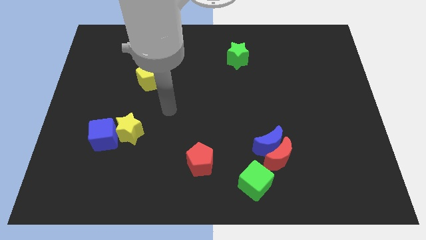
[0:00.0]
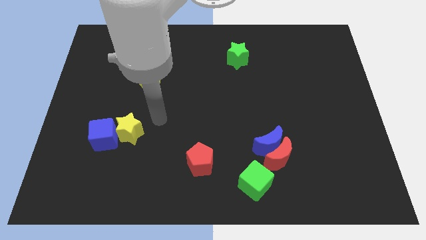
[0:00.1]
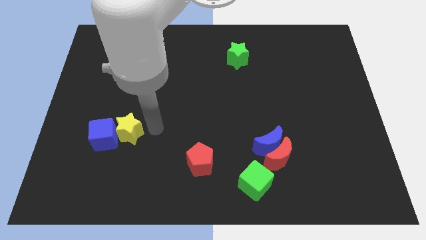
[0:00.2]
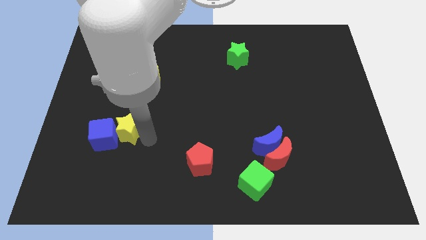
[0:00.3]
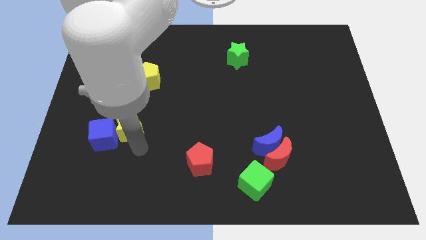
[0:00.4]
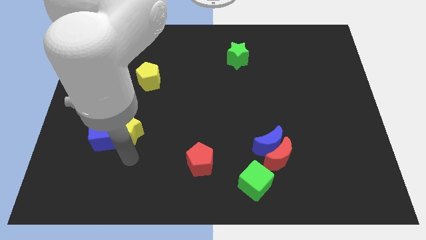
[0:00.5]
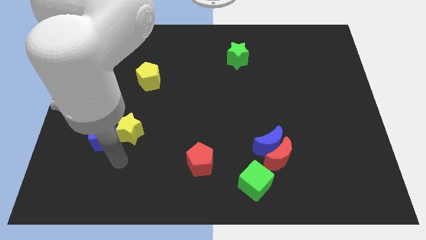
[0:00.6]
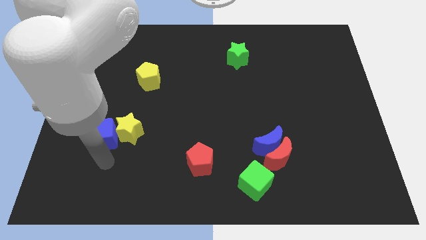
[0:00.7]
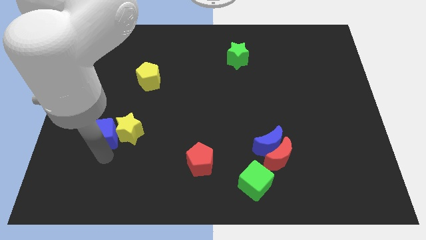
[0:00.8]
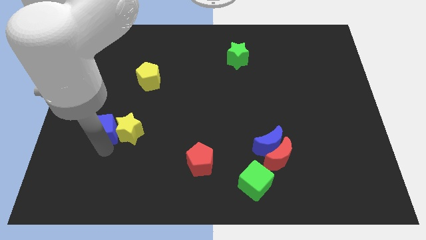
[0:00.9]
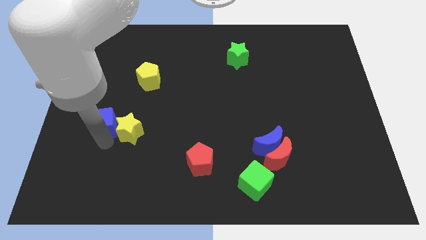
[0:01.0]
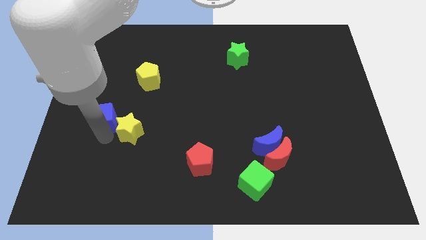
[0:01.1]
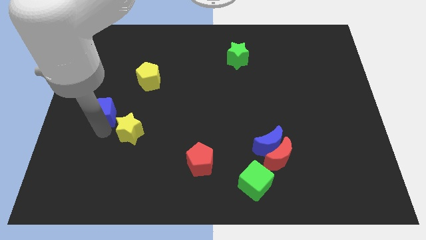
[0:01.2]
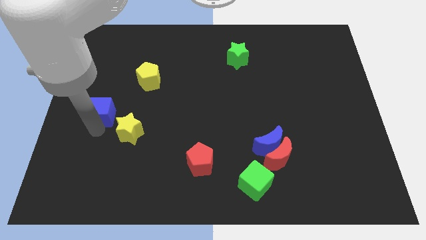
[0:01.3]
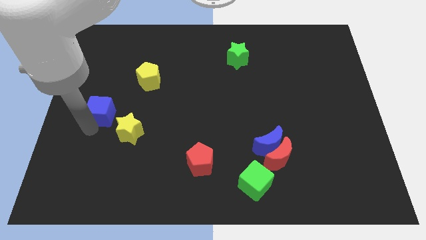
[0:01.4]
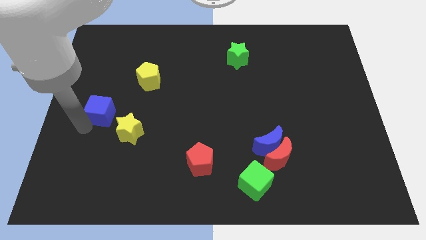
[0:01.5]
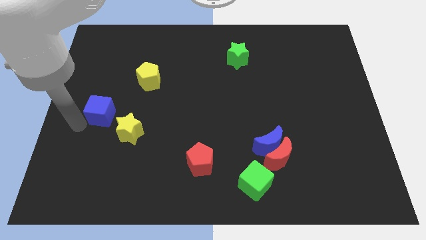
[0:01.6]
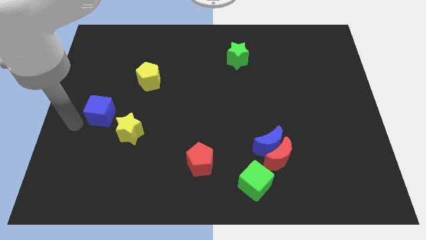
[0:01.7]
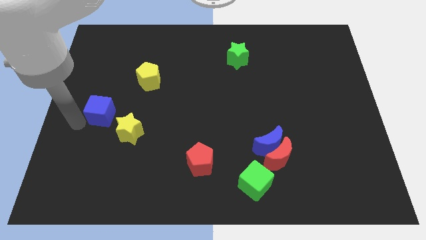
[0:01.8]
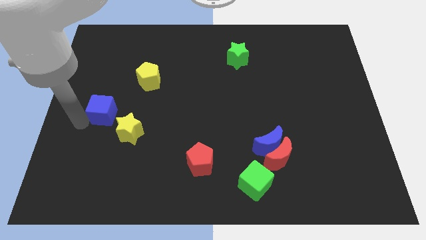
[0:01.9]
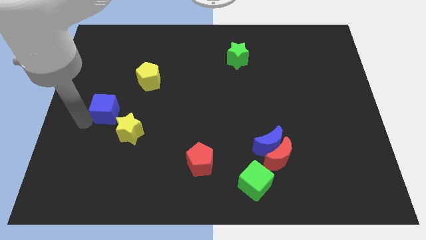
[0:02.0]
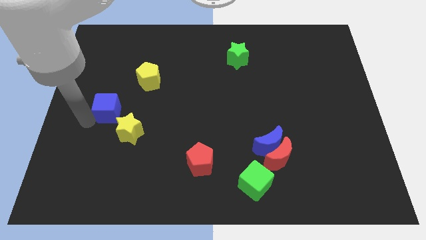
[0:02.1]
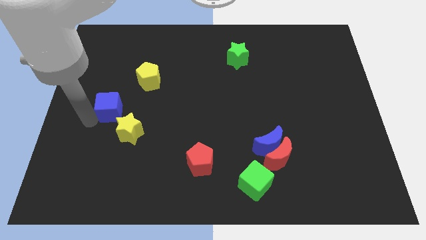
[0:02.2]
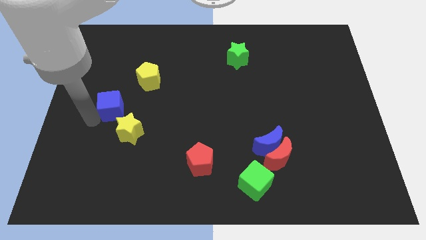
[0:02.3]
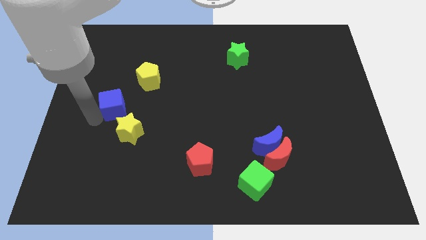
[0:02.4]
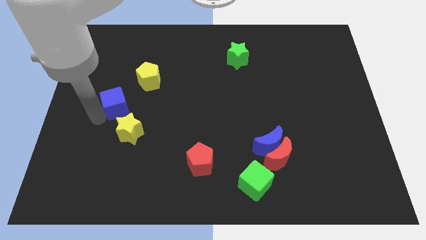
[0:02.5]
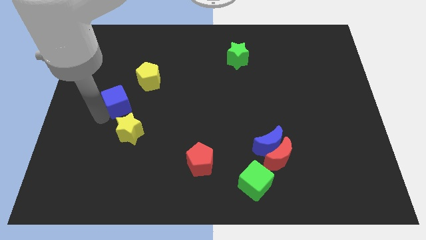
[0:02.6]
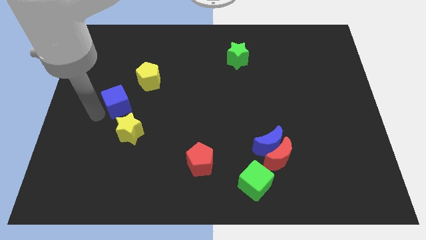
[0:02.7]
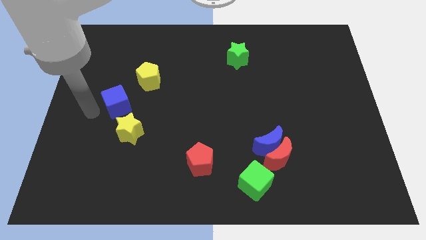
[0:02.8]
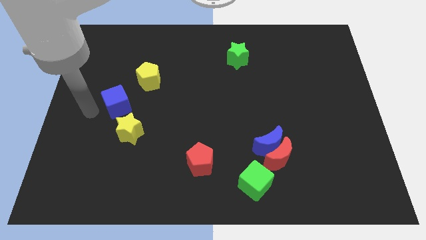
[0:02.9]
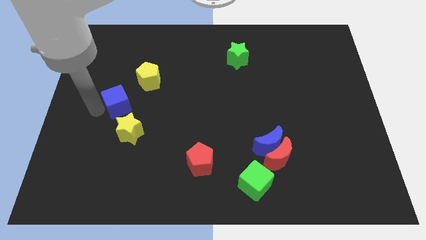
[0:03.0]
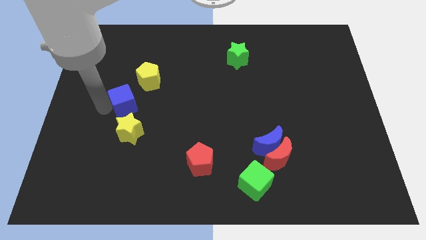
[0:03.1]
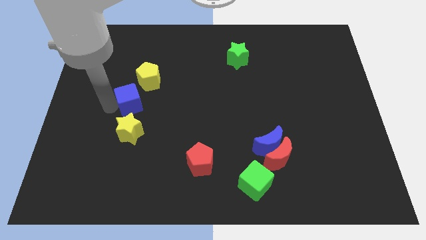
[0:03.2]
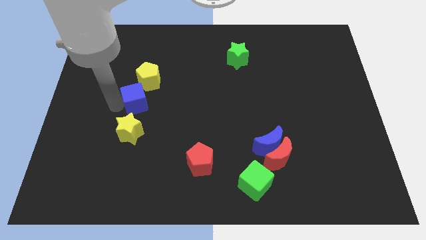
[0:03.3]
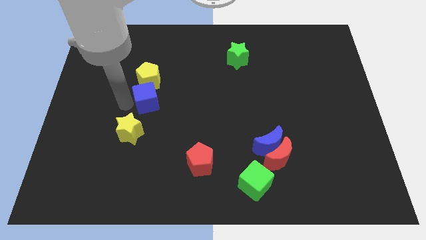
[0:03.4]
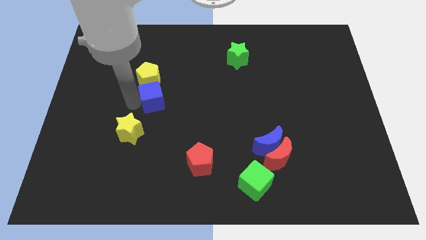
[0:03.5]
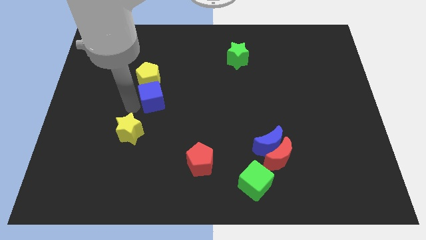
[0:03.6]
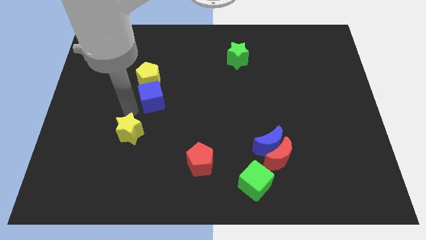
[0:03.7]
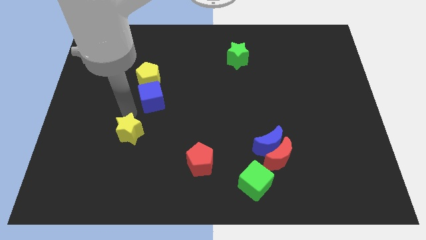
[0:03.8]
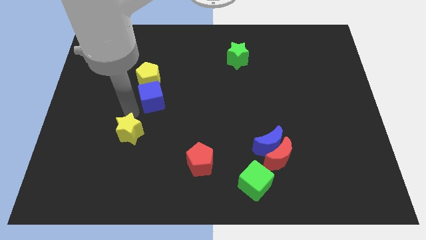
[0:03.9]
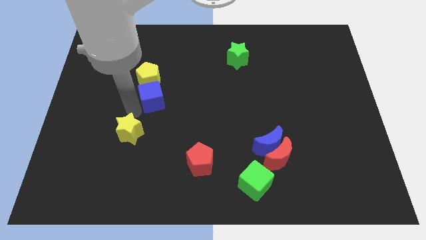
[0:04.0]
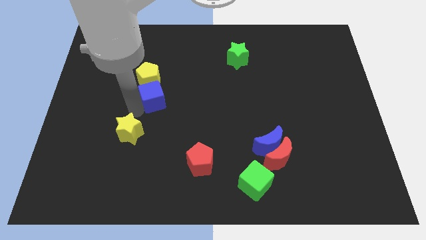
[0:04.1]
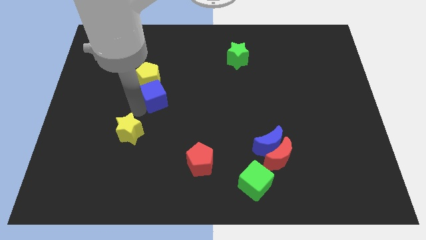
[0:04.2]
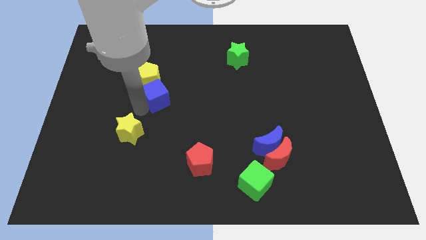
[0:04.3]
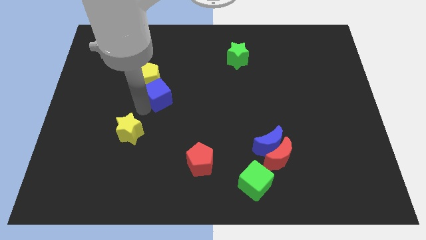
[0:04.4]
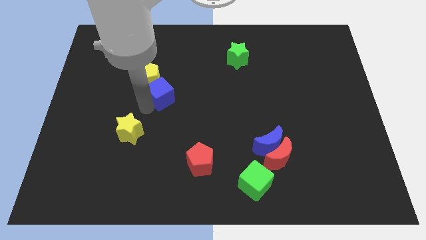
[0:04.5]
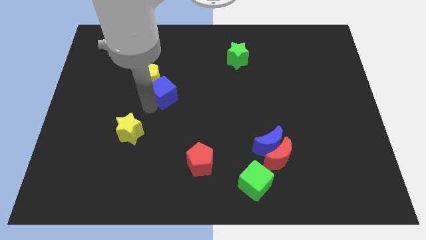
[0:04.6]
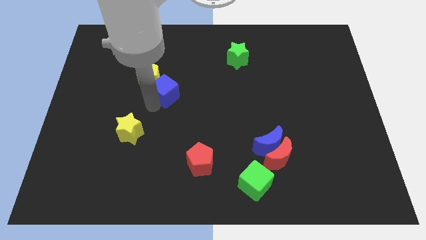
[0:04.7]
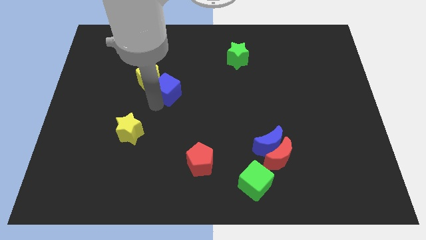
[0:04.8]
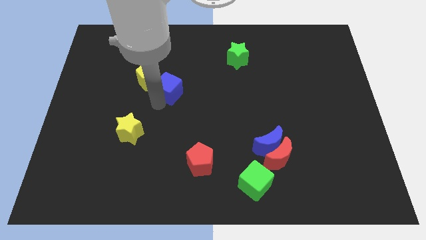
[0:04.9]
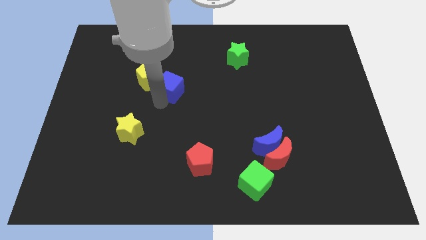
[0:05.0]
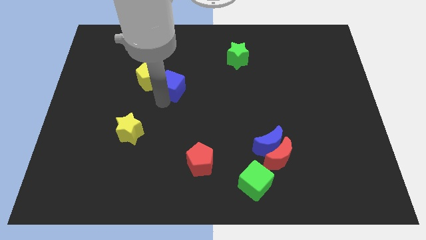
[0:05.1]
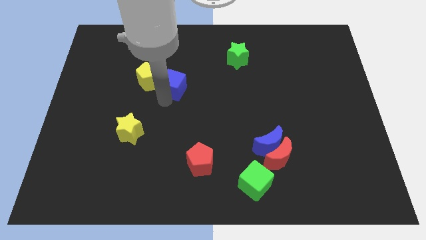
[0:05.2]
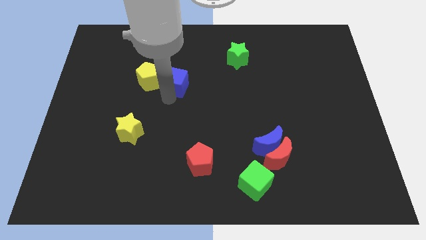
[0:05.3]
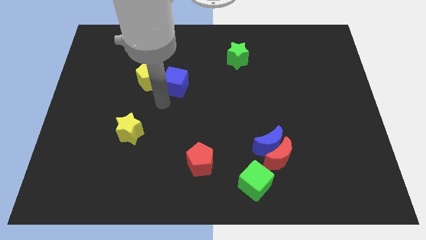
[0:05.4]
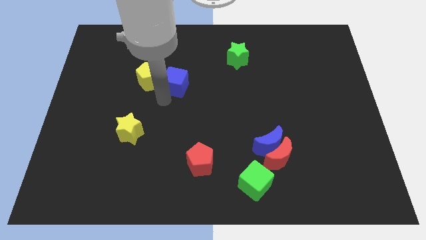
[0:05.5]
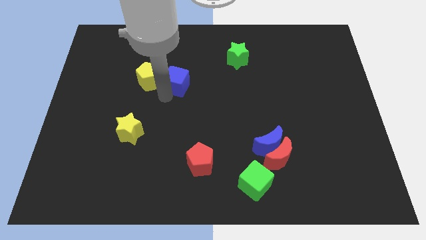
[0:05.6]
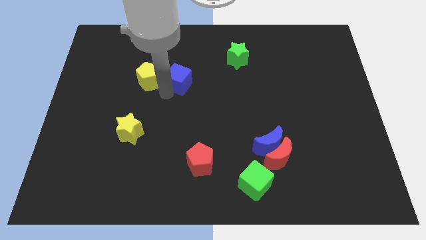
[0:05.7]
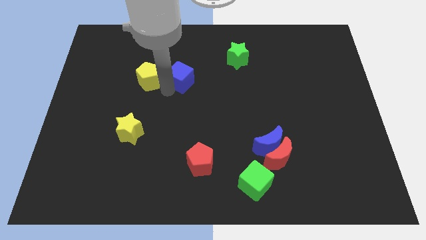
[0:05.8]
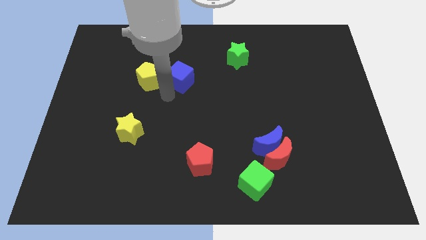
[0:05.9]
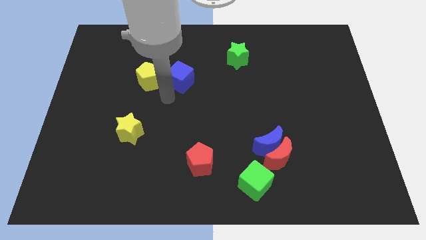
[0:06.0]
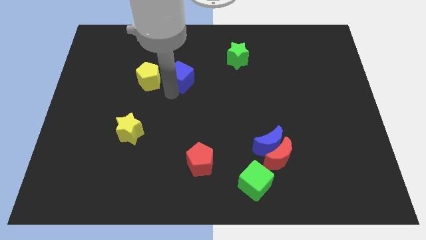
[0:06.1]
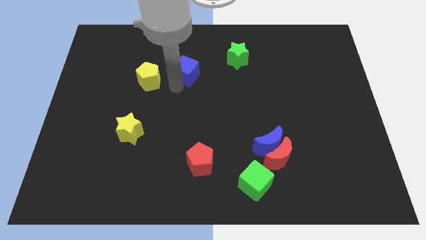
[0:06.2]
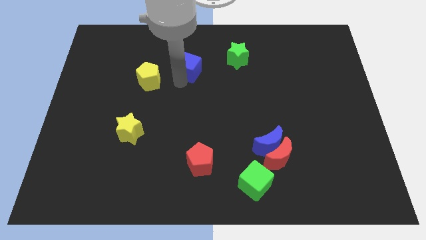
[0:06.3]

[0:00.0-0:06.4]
slide the blue cube just left of the green star

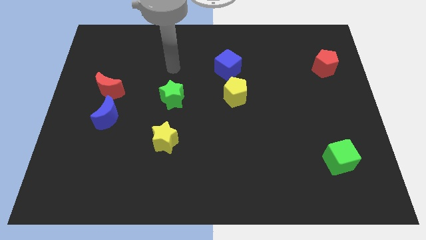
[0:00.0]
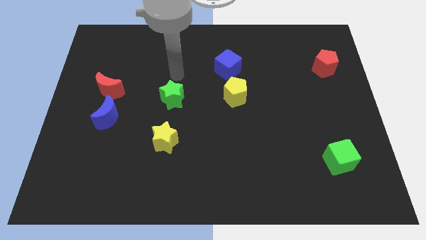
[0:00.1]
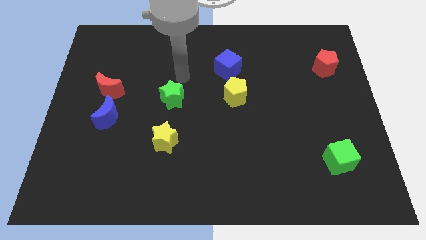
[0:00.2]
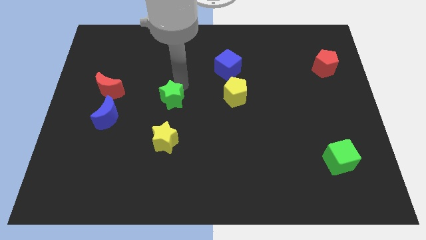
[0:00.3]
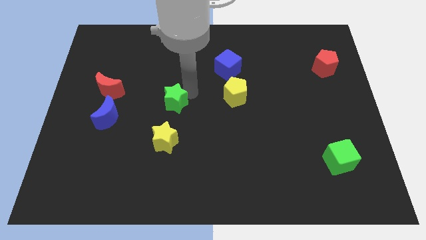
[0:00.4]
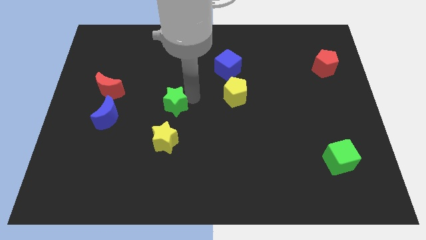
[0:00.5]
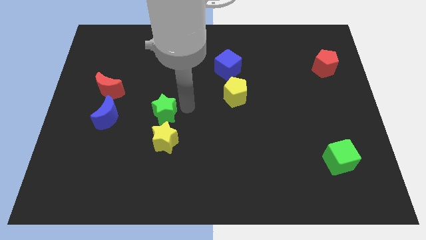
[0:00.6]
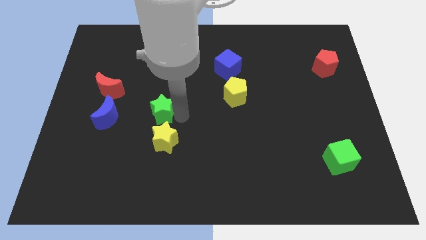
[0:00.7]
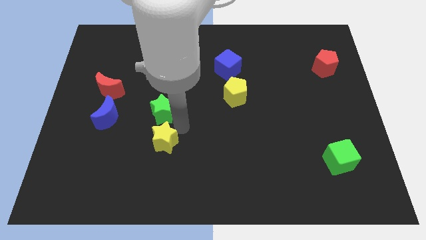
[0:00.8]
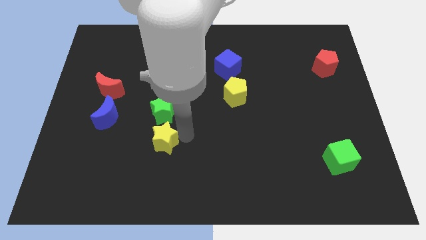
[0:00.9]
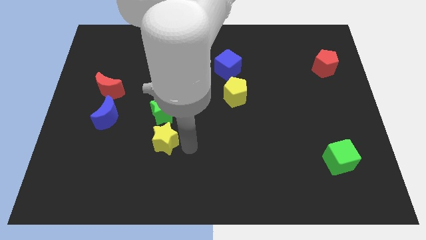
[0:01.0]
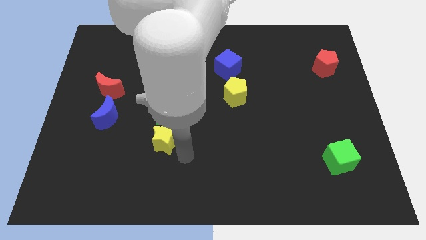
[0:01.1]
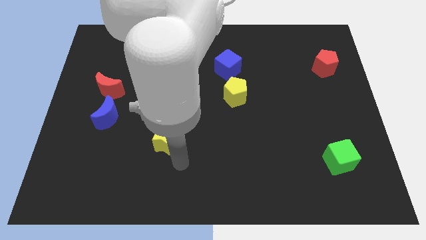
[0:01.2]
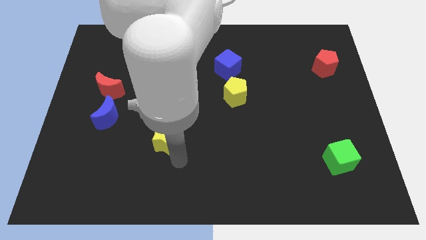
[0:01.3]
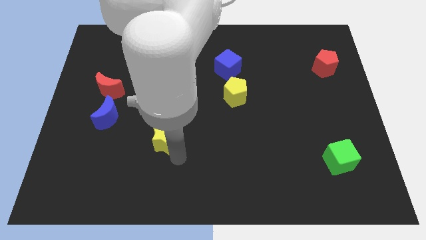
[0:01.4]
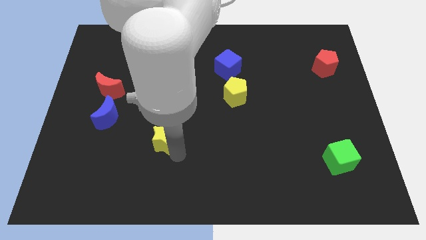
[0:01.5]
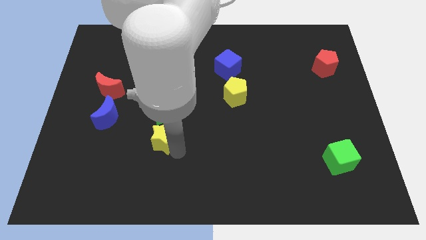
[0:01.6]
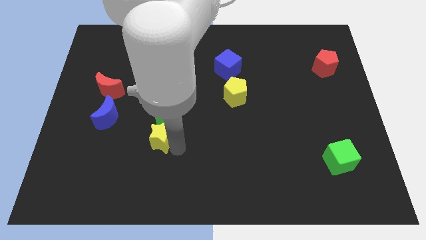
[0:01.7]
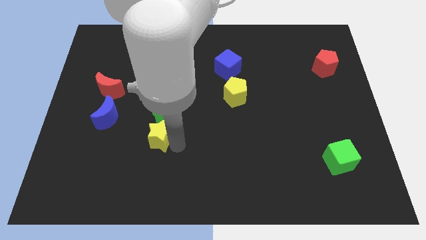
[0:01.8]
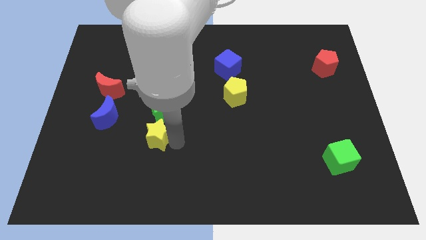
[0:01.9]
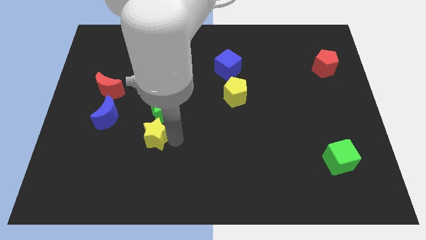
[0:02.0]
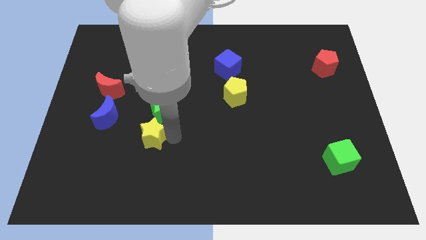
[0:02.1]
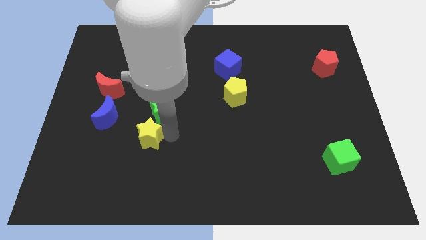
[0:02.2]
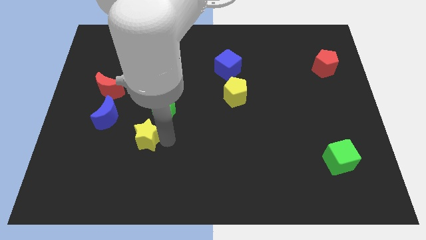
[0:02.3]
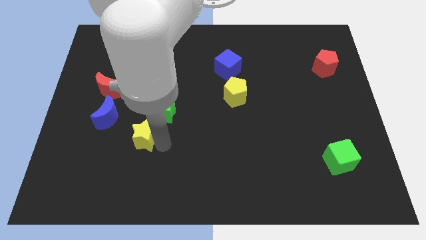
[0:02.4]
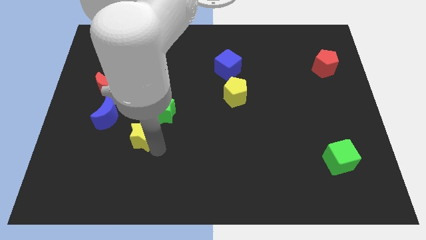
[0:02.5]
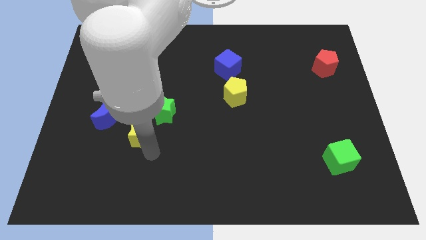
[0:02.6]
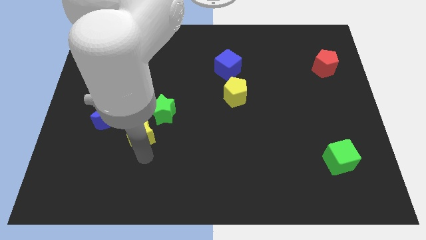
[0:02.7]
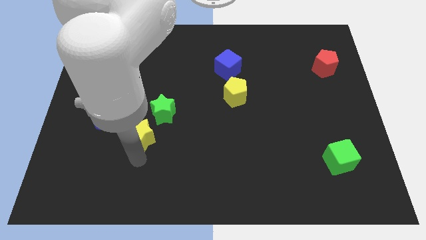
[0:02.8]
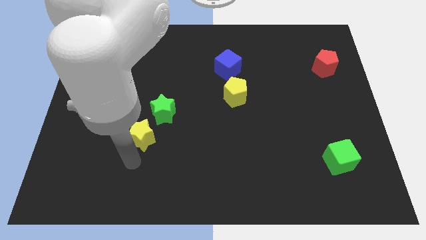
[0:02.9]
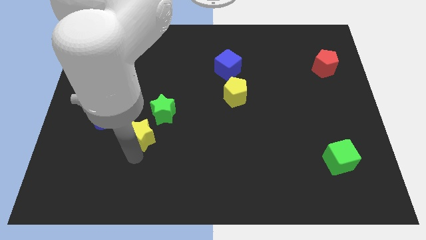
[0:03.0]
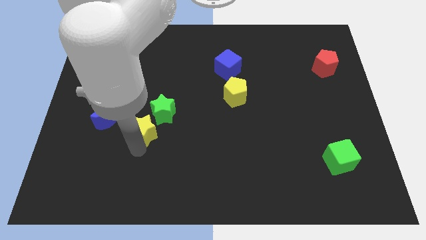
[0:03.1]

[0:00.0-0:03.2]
put the yellow star just right of the blue moon
